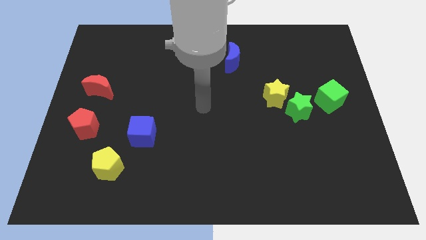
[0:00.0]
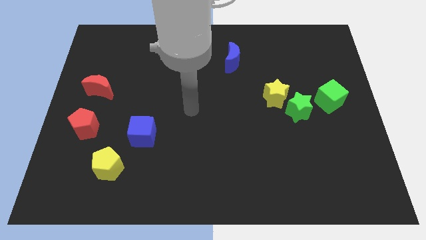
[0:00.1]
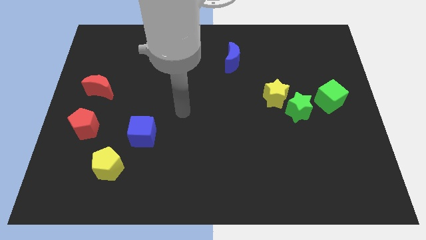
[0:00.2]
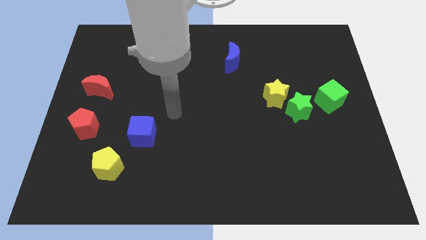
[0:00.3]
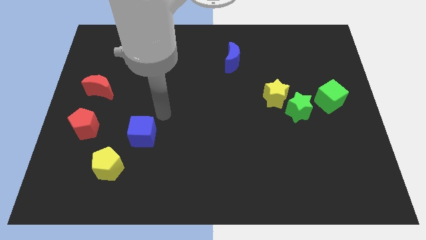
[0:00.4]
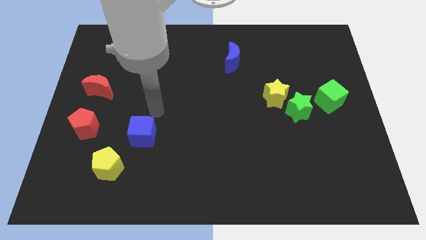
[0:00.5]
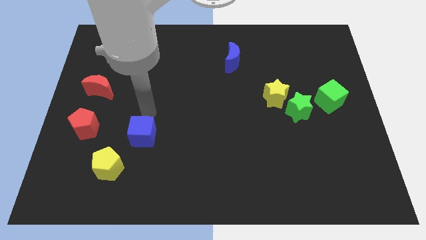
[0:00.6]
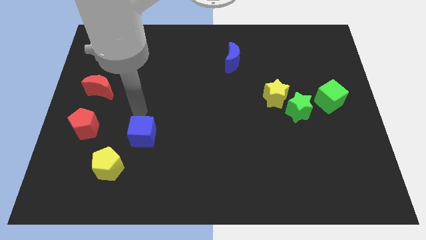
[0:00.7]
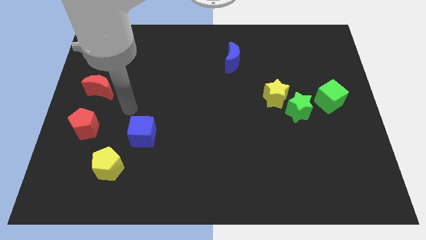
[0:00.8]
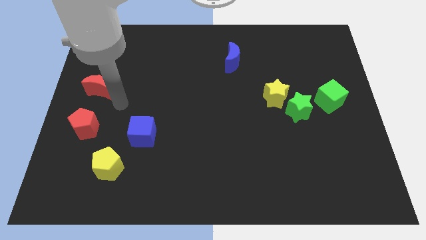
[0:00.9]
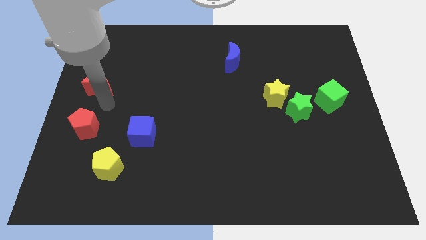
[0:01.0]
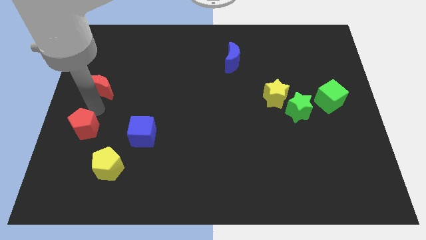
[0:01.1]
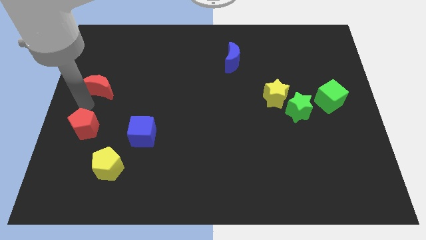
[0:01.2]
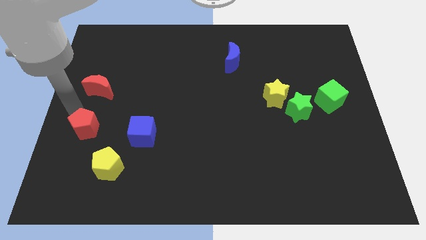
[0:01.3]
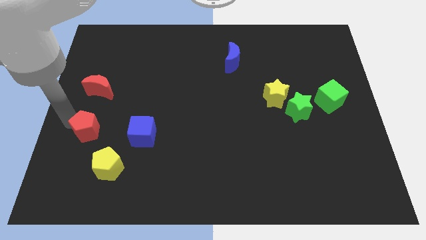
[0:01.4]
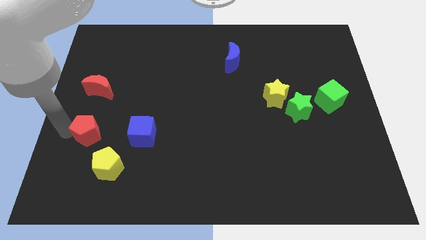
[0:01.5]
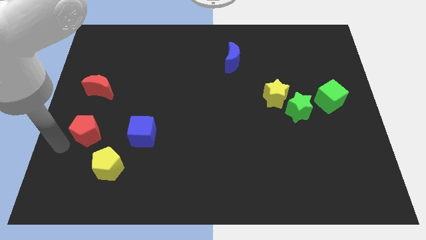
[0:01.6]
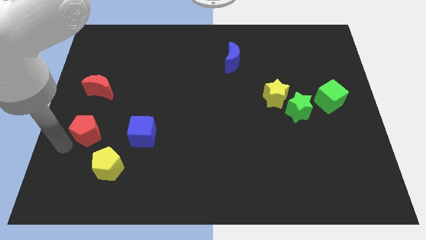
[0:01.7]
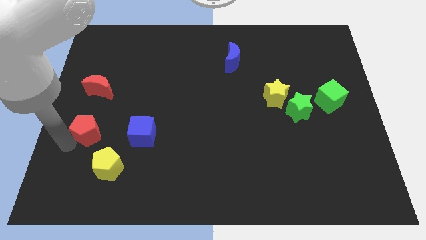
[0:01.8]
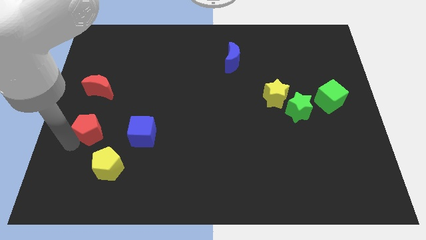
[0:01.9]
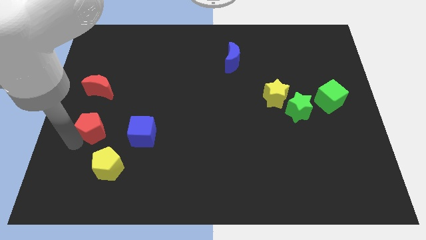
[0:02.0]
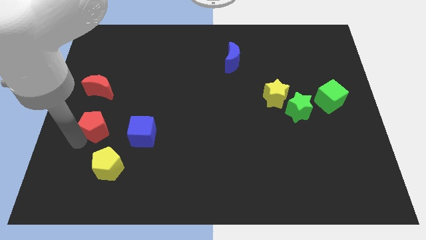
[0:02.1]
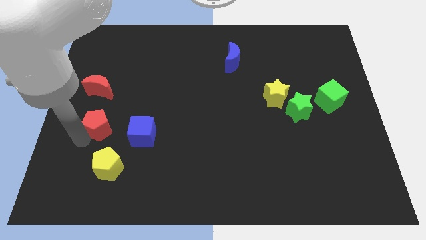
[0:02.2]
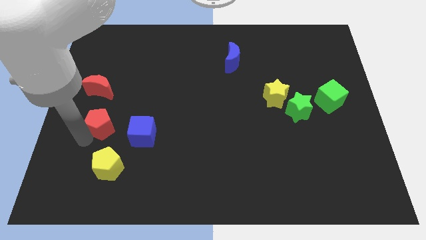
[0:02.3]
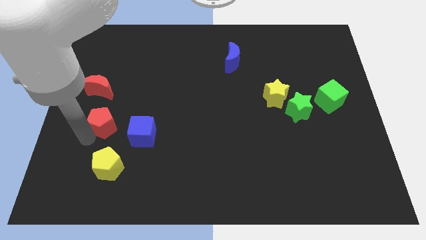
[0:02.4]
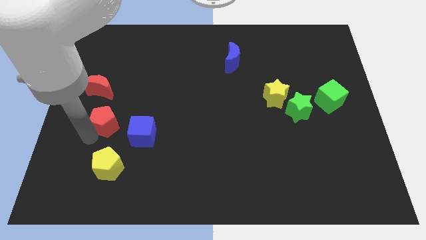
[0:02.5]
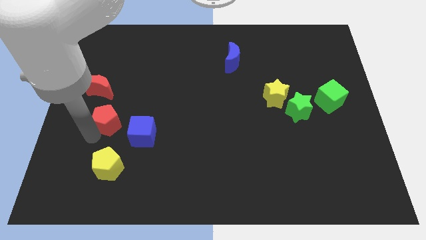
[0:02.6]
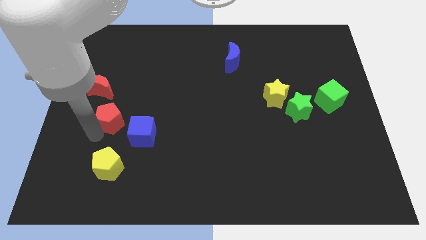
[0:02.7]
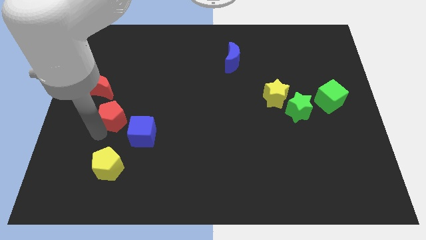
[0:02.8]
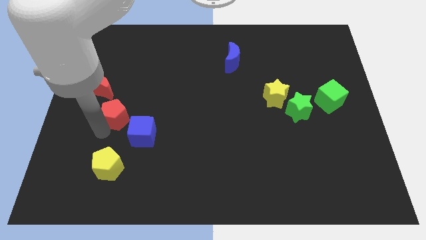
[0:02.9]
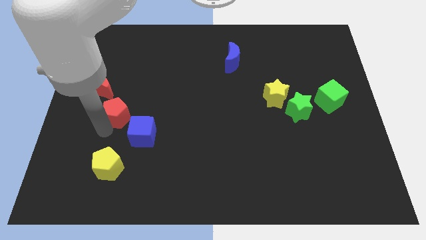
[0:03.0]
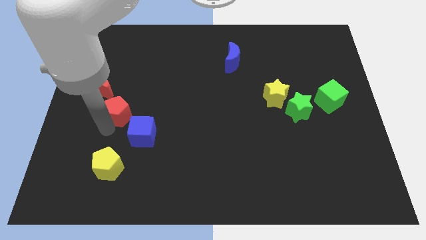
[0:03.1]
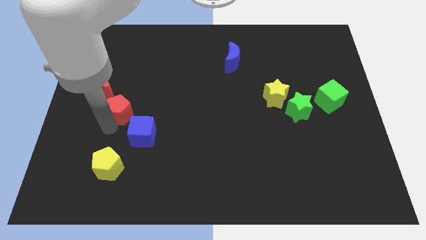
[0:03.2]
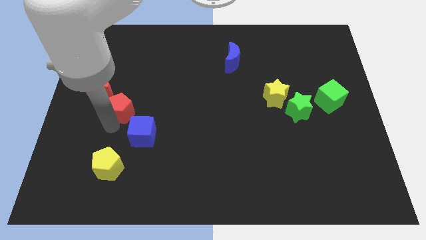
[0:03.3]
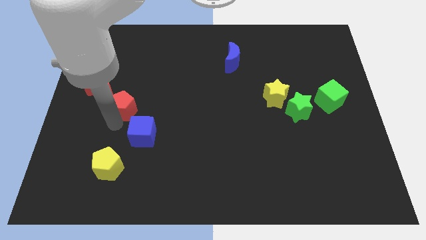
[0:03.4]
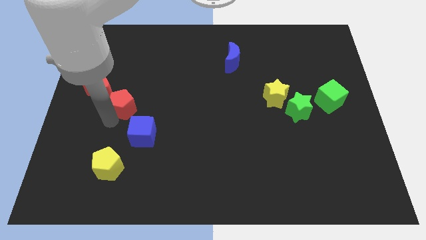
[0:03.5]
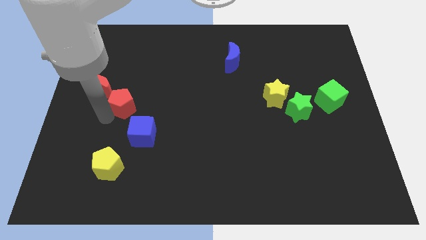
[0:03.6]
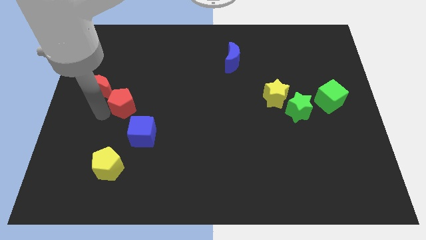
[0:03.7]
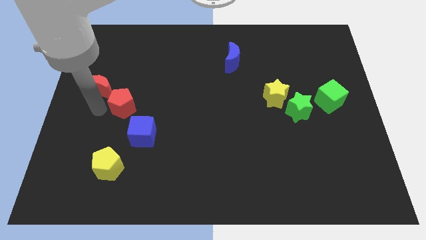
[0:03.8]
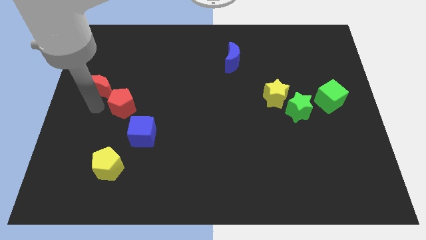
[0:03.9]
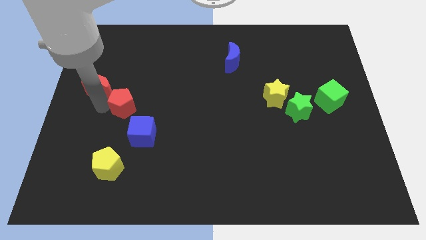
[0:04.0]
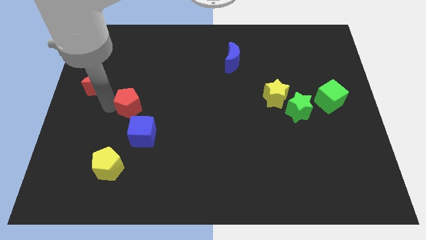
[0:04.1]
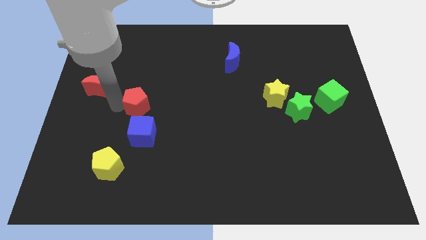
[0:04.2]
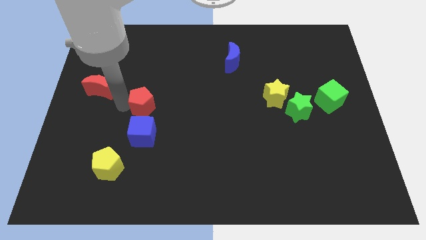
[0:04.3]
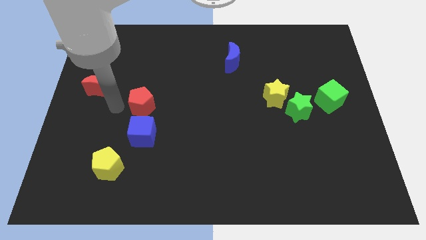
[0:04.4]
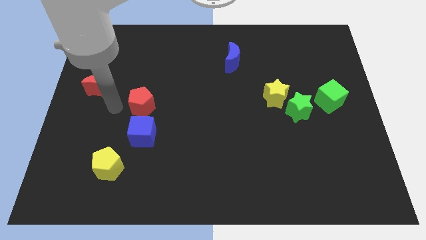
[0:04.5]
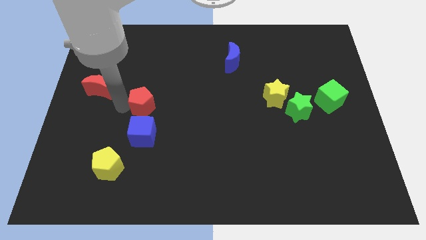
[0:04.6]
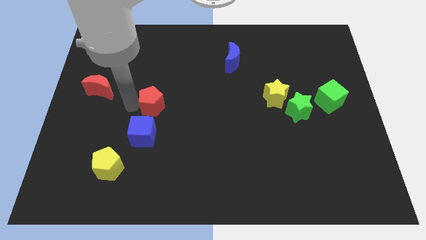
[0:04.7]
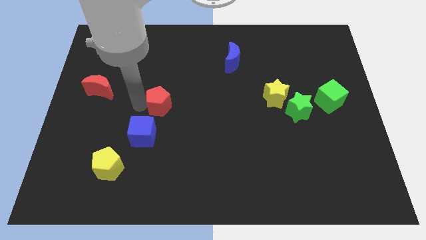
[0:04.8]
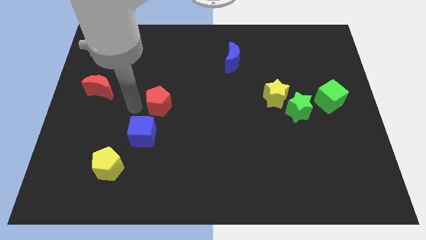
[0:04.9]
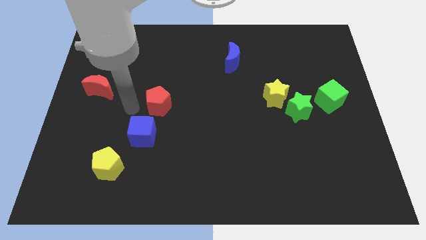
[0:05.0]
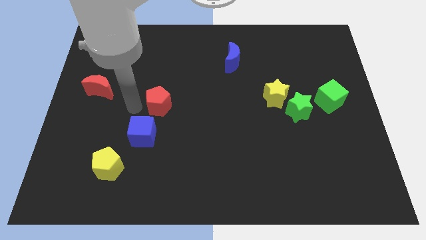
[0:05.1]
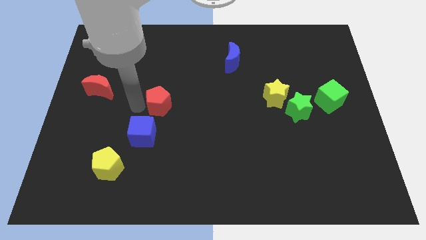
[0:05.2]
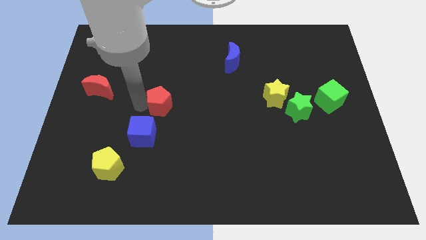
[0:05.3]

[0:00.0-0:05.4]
put the red pentagon to the center of the board
